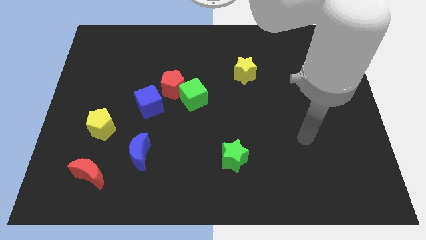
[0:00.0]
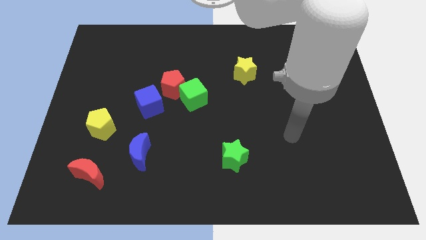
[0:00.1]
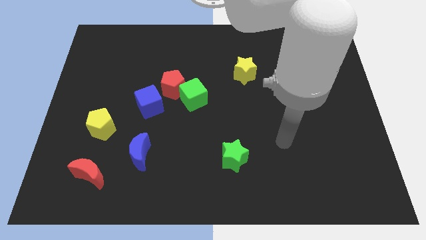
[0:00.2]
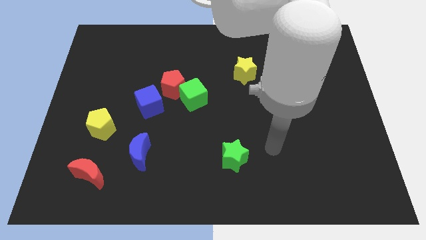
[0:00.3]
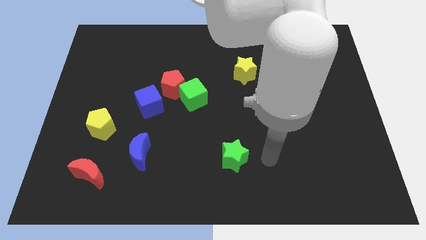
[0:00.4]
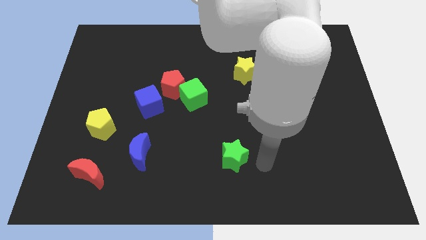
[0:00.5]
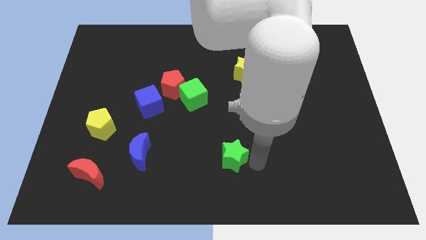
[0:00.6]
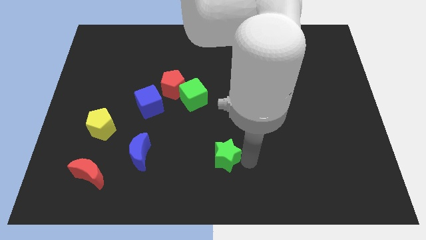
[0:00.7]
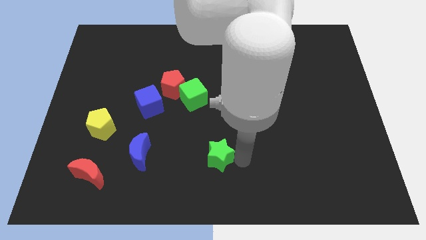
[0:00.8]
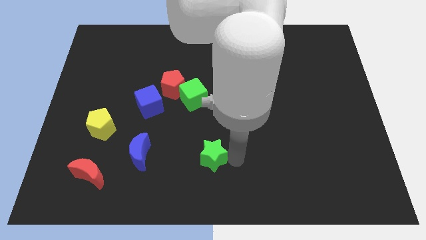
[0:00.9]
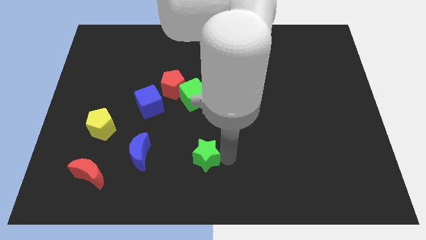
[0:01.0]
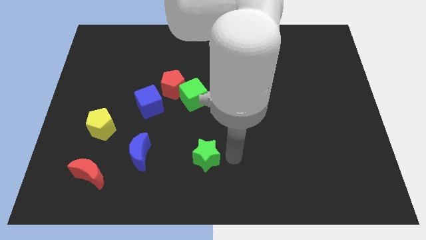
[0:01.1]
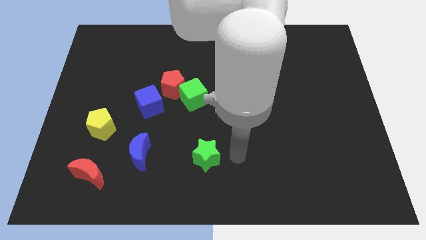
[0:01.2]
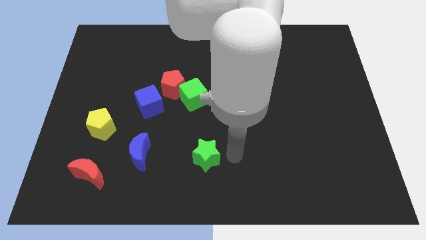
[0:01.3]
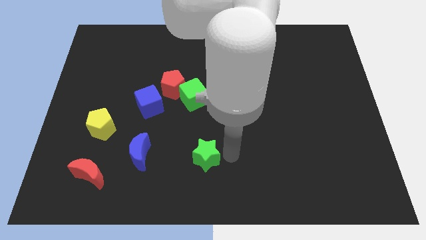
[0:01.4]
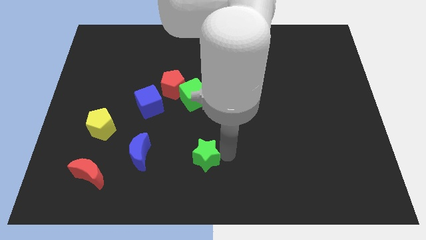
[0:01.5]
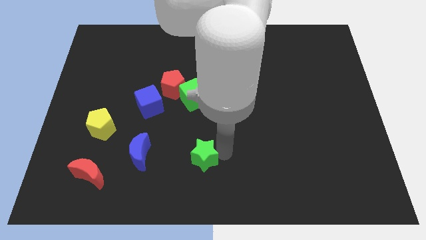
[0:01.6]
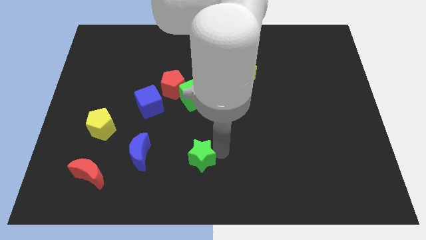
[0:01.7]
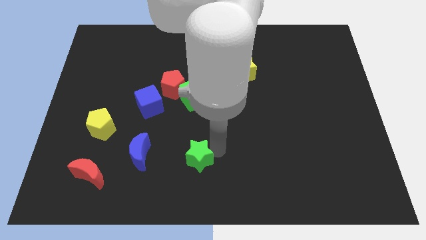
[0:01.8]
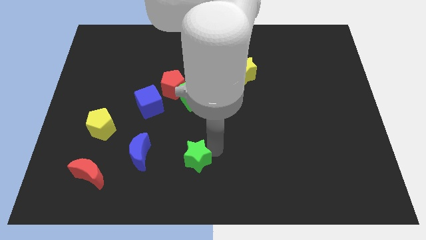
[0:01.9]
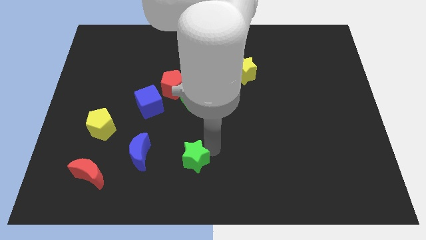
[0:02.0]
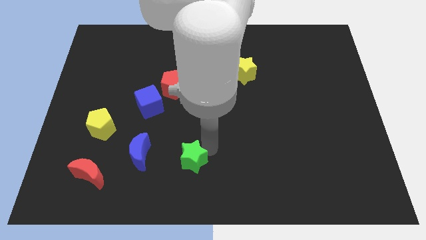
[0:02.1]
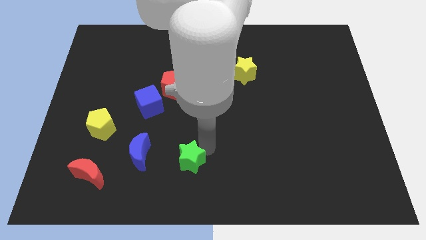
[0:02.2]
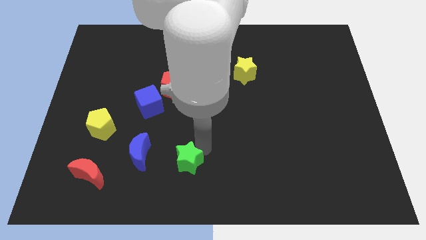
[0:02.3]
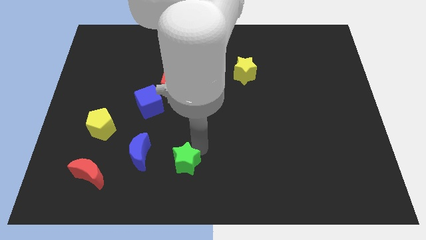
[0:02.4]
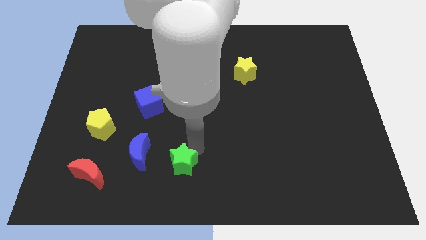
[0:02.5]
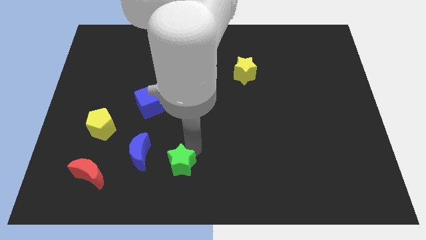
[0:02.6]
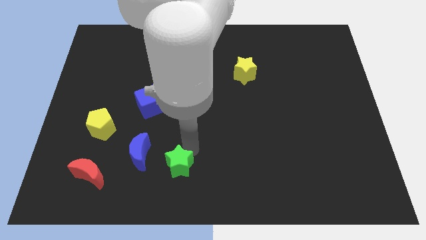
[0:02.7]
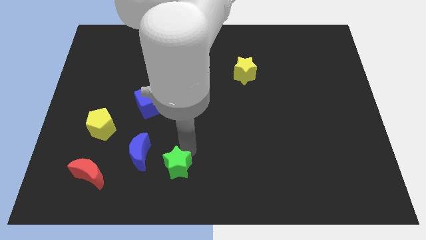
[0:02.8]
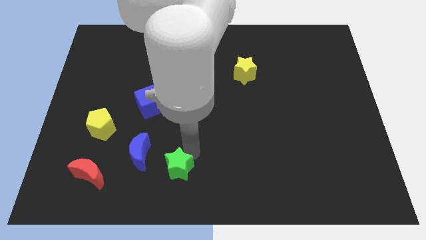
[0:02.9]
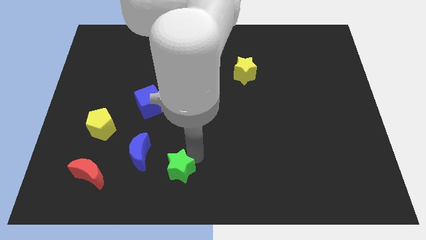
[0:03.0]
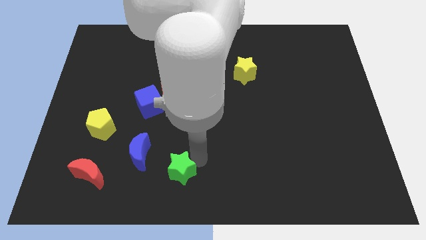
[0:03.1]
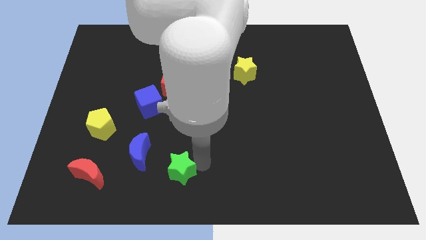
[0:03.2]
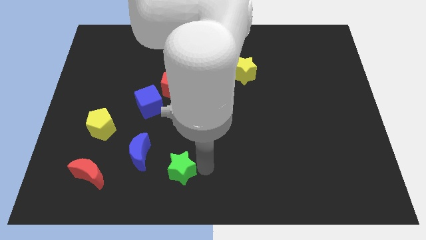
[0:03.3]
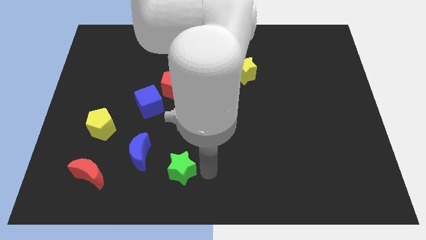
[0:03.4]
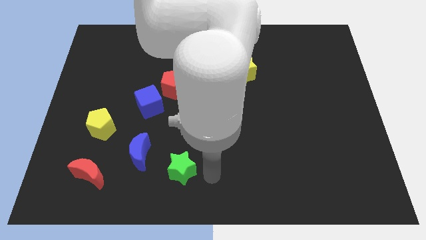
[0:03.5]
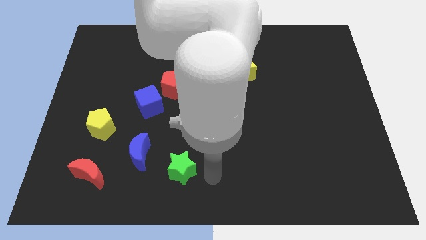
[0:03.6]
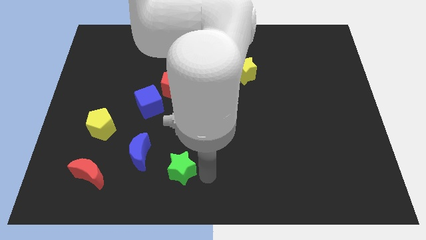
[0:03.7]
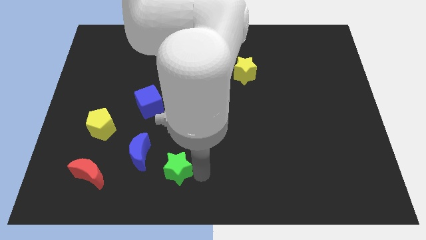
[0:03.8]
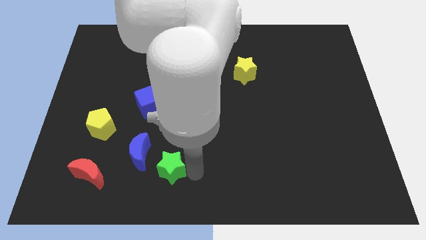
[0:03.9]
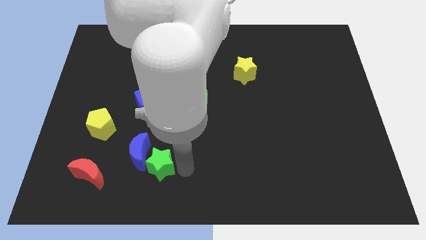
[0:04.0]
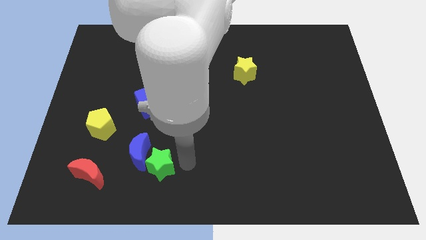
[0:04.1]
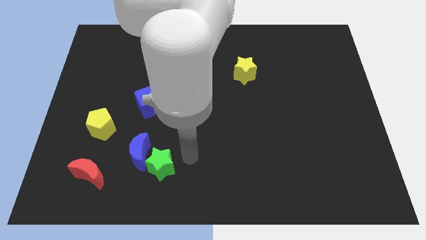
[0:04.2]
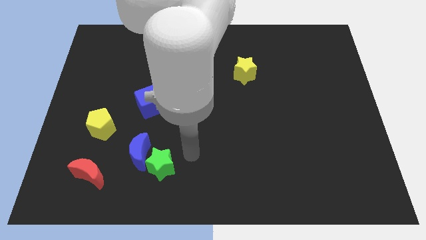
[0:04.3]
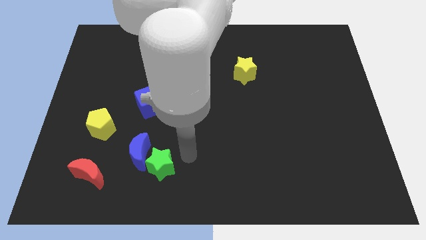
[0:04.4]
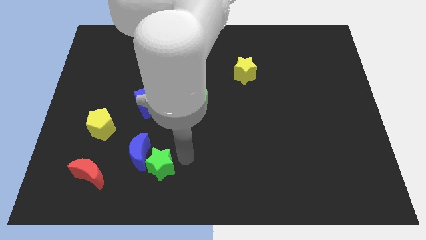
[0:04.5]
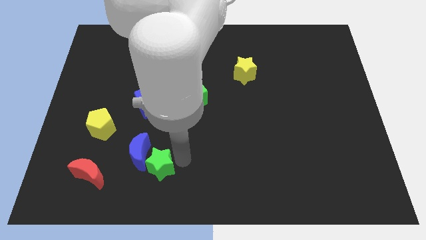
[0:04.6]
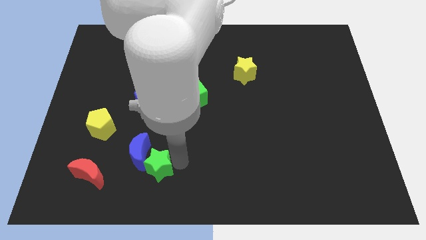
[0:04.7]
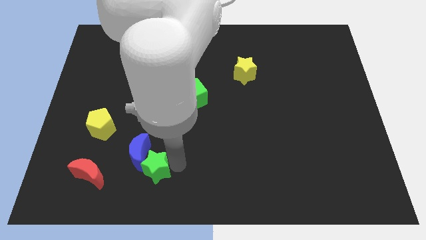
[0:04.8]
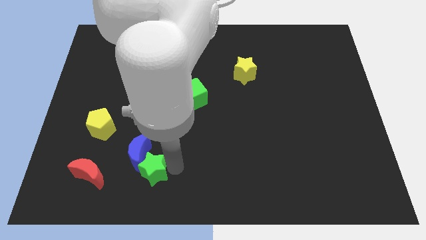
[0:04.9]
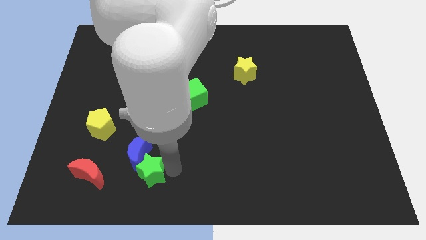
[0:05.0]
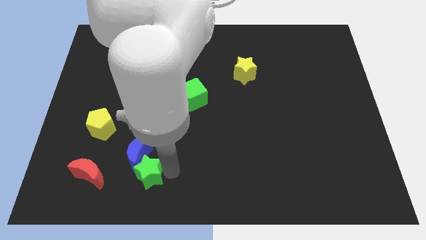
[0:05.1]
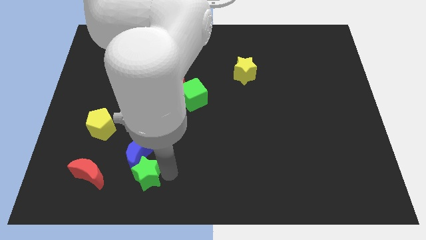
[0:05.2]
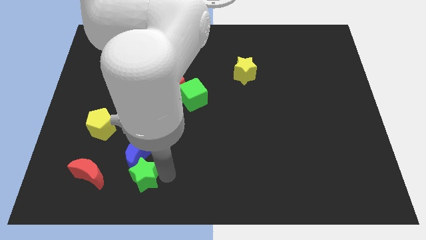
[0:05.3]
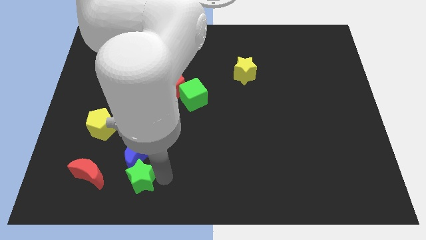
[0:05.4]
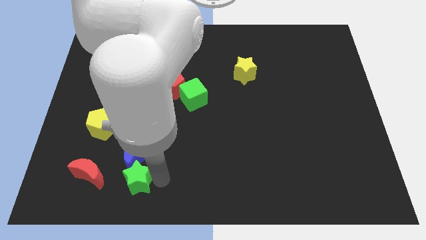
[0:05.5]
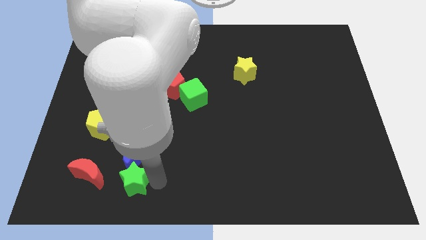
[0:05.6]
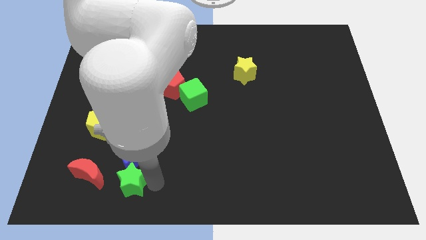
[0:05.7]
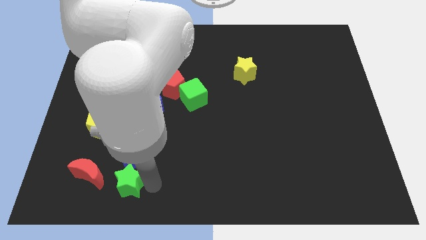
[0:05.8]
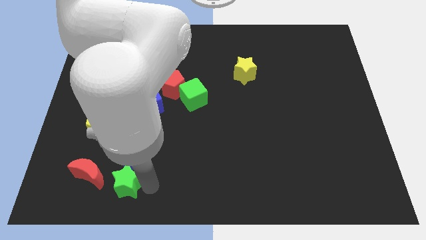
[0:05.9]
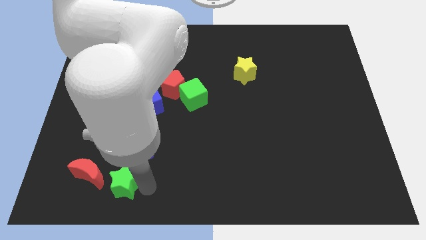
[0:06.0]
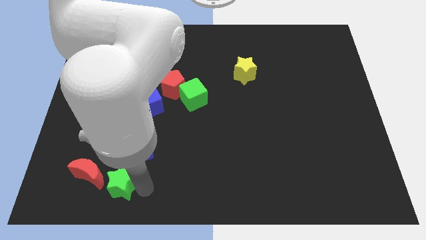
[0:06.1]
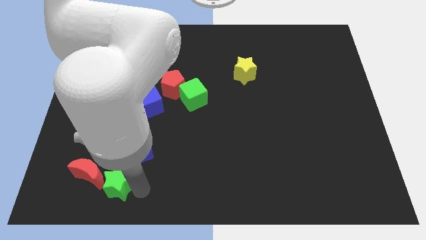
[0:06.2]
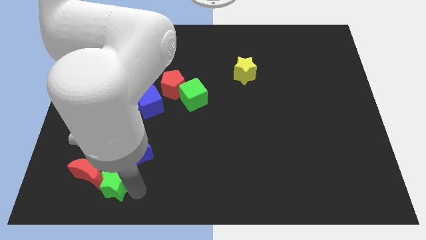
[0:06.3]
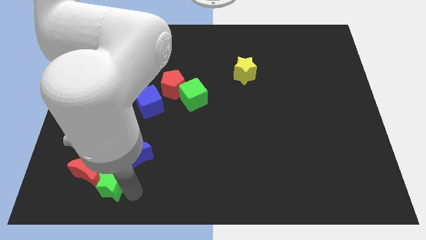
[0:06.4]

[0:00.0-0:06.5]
slide the green star close to the red moon

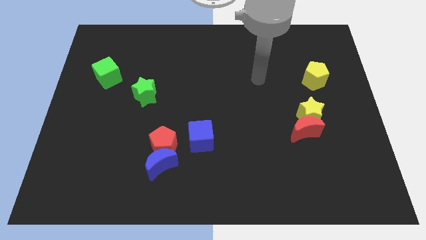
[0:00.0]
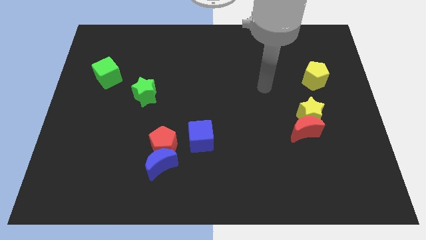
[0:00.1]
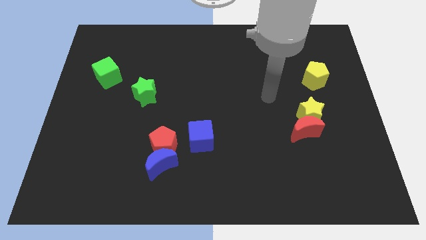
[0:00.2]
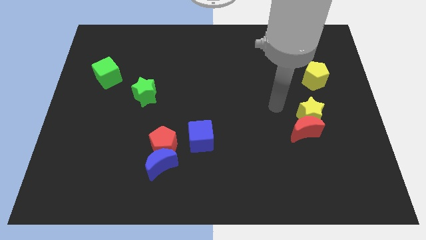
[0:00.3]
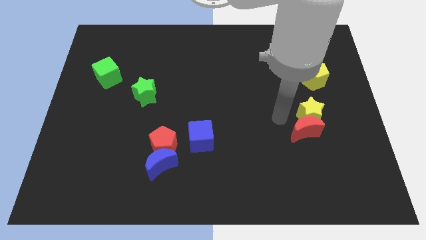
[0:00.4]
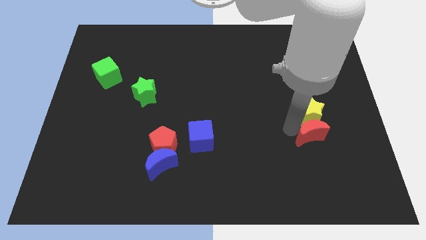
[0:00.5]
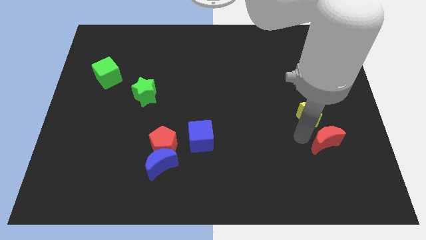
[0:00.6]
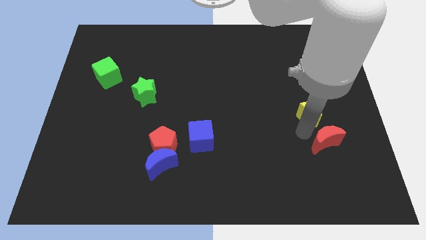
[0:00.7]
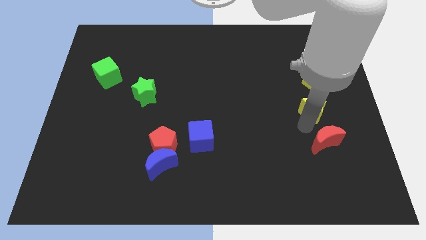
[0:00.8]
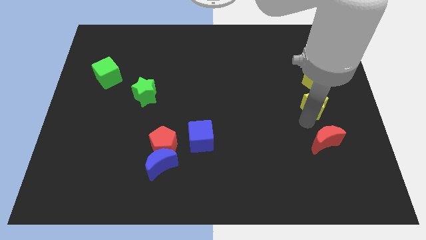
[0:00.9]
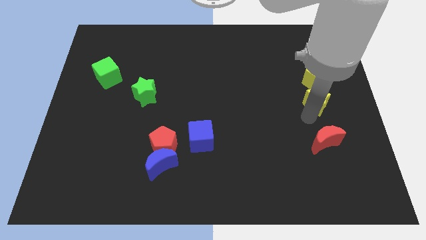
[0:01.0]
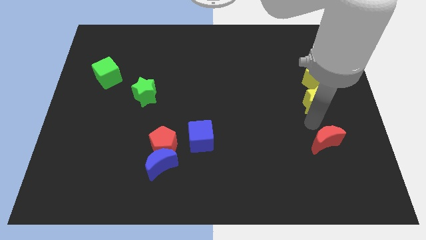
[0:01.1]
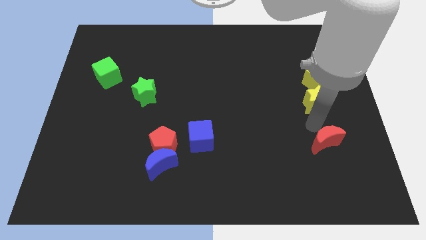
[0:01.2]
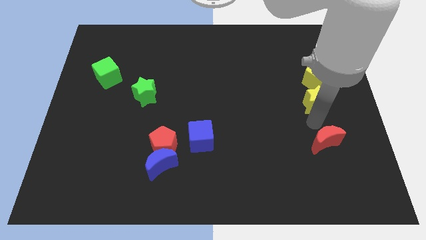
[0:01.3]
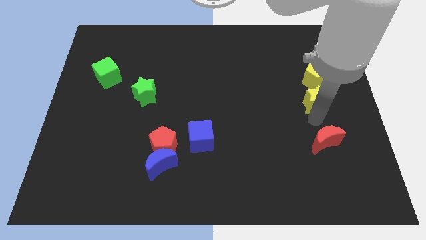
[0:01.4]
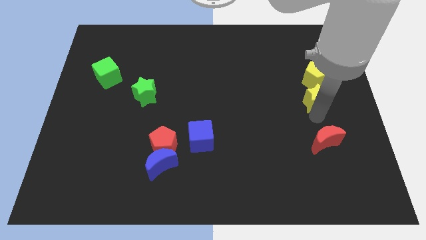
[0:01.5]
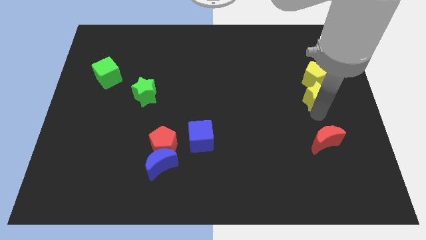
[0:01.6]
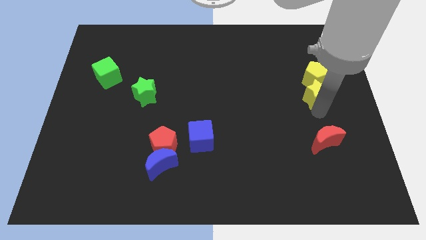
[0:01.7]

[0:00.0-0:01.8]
push the yellow star close to the yellow pentagon
